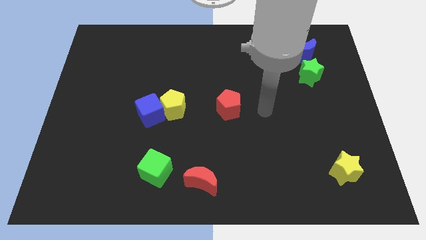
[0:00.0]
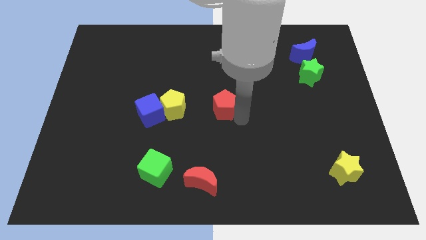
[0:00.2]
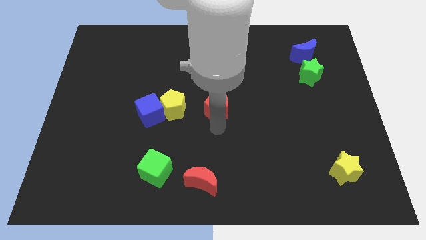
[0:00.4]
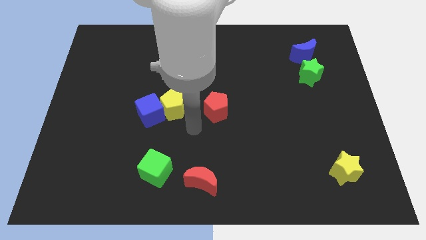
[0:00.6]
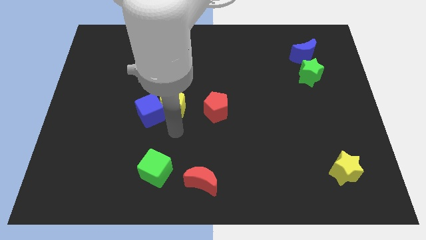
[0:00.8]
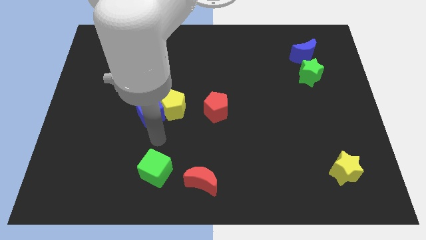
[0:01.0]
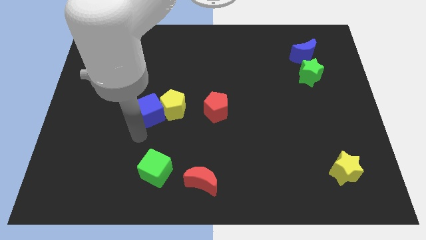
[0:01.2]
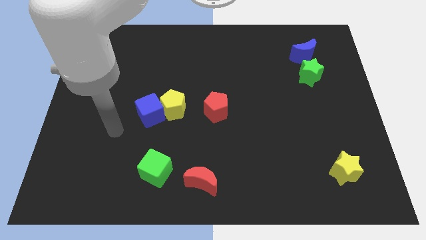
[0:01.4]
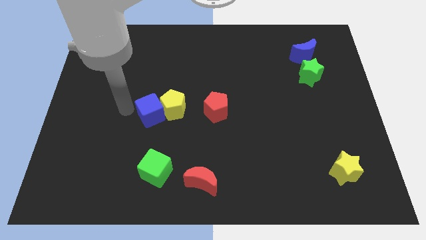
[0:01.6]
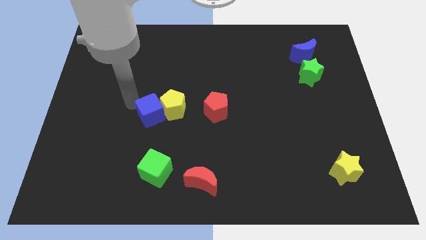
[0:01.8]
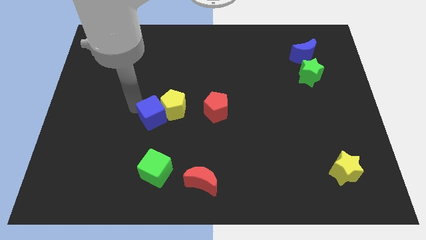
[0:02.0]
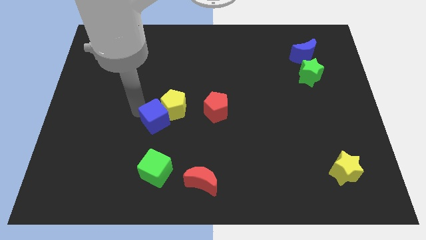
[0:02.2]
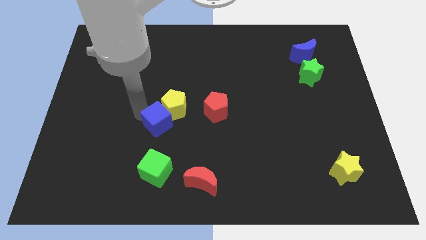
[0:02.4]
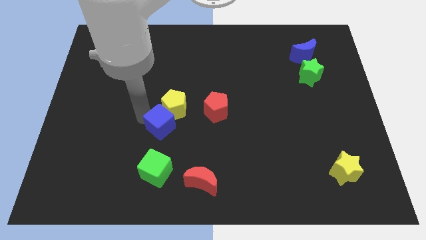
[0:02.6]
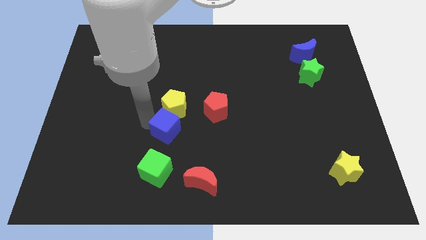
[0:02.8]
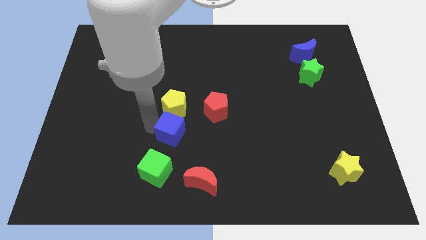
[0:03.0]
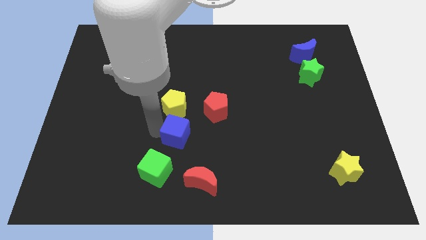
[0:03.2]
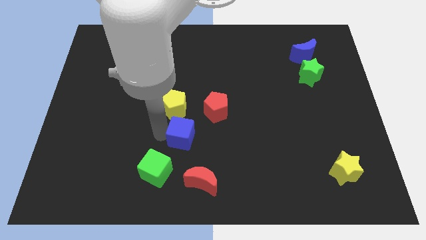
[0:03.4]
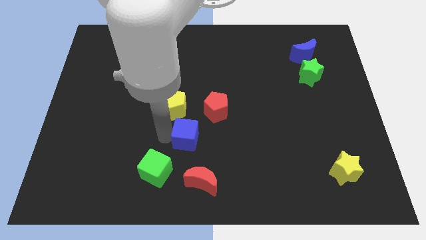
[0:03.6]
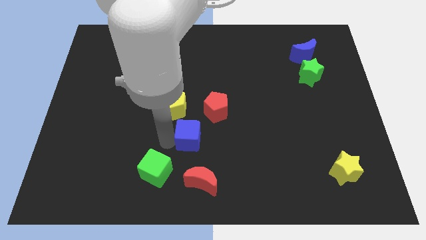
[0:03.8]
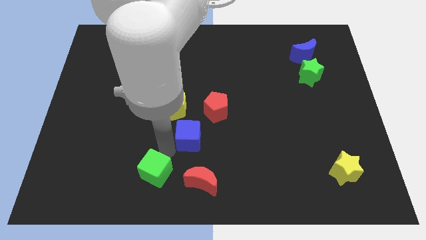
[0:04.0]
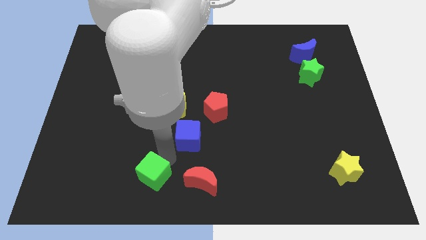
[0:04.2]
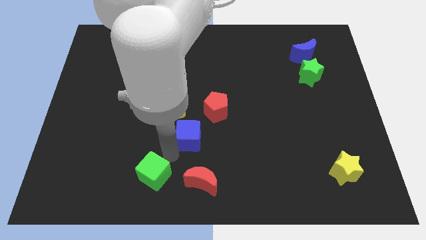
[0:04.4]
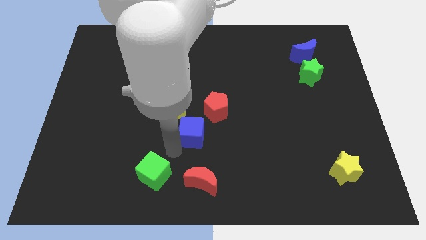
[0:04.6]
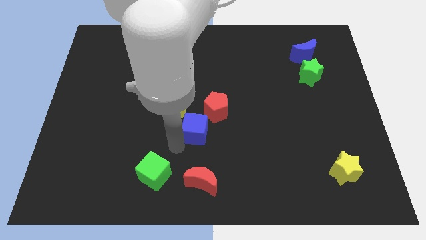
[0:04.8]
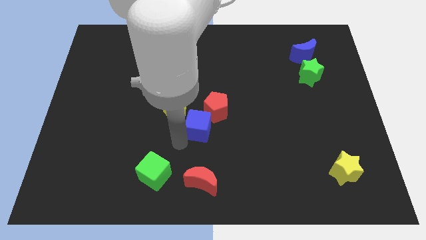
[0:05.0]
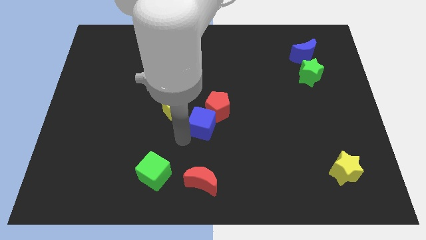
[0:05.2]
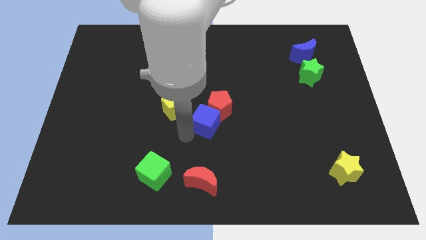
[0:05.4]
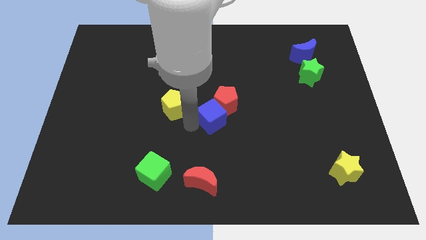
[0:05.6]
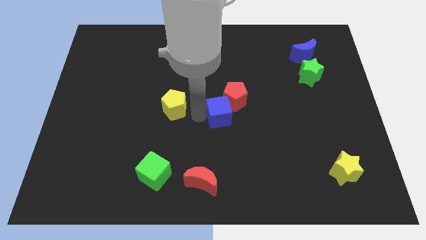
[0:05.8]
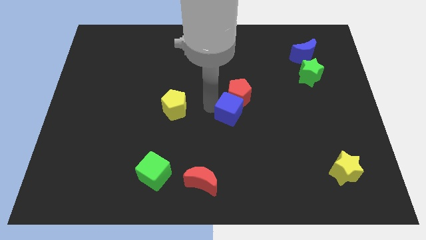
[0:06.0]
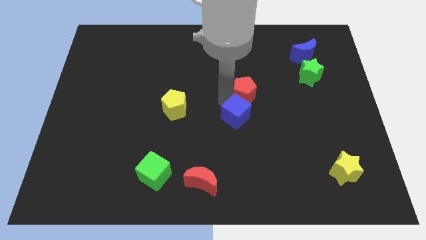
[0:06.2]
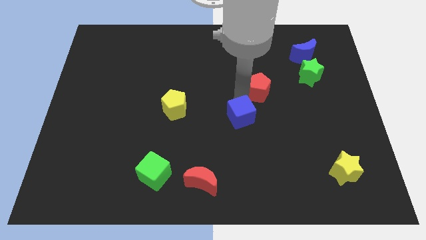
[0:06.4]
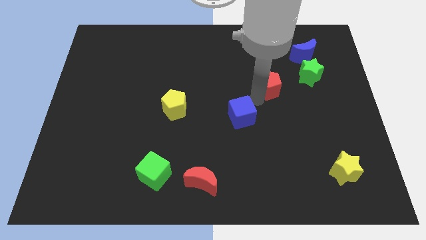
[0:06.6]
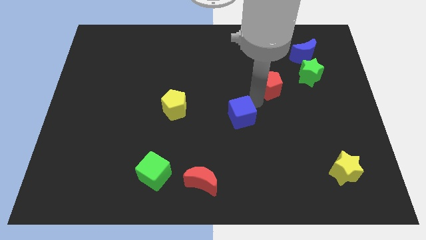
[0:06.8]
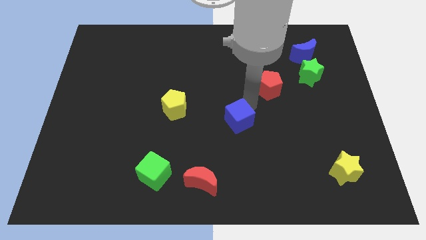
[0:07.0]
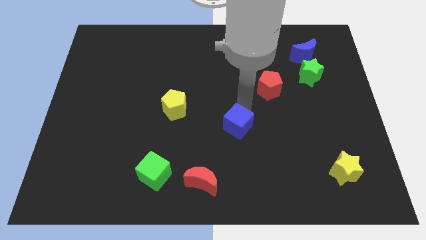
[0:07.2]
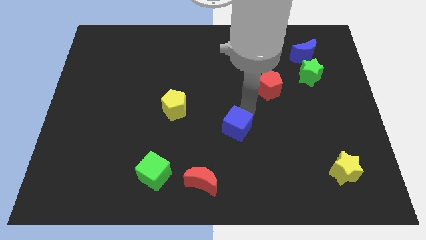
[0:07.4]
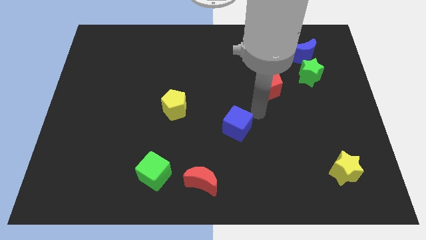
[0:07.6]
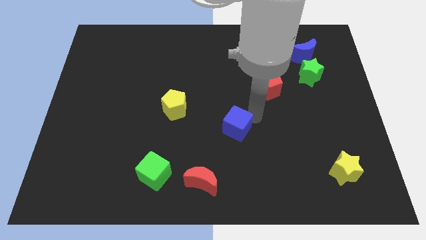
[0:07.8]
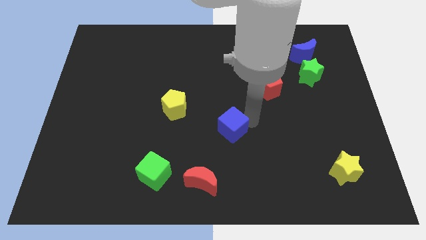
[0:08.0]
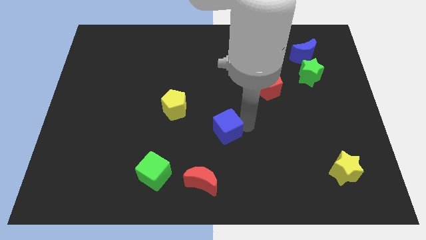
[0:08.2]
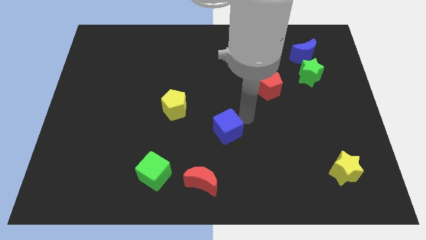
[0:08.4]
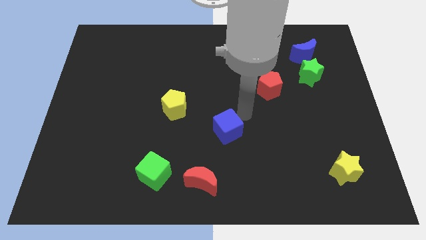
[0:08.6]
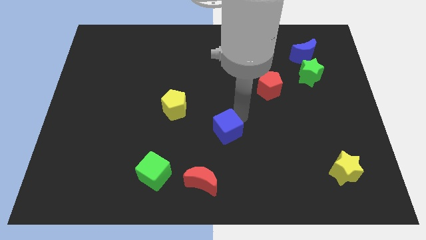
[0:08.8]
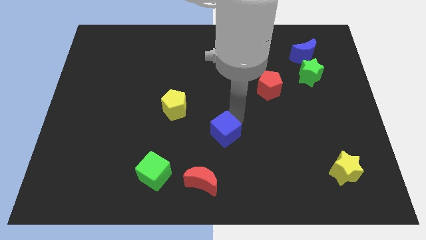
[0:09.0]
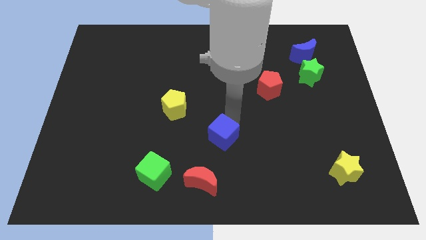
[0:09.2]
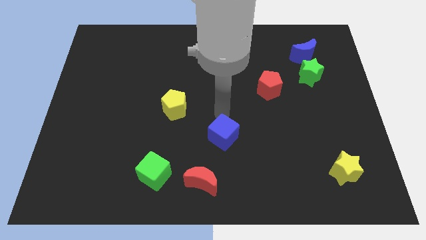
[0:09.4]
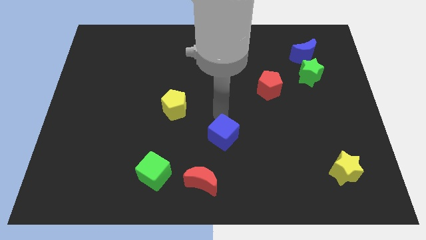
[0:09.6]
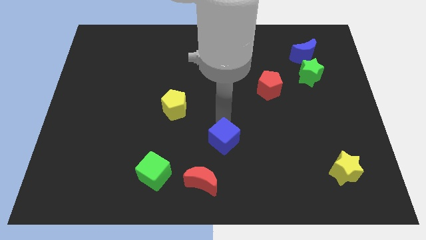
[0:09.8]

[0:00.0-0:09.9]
move the blue cube to the top right side of the red moon

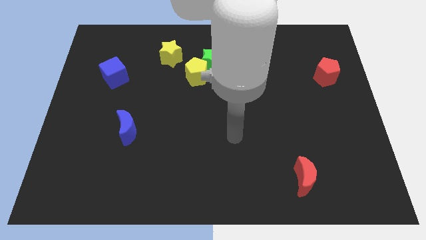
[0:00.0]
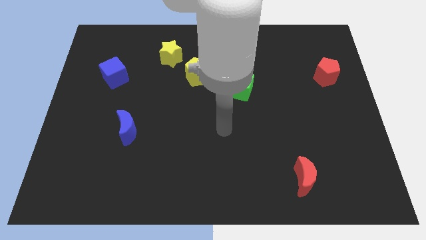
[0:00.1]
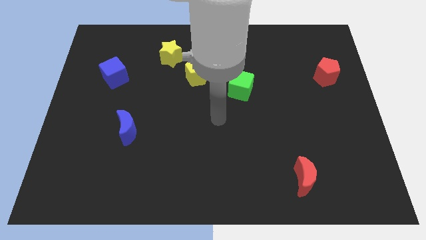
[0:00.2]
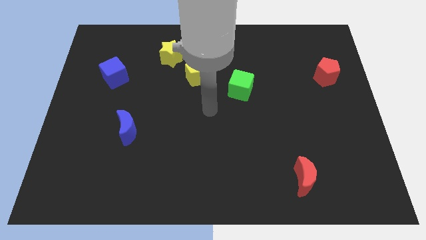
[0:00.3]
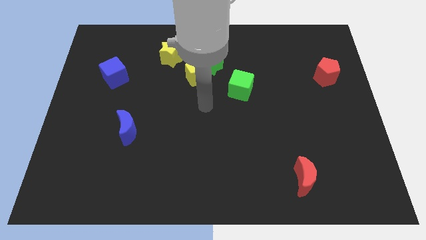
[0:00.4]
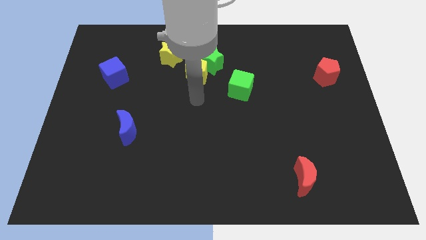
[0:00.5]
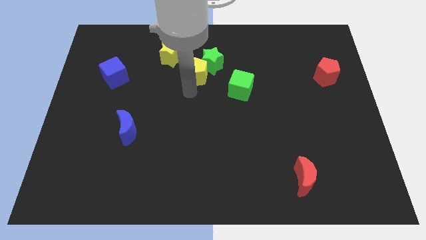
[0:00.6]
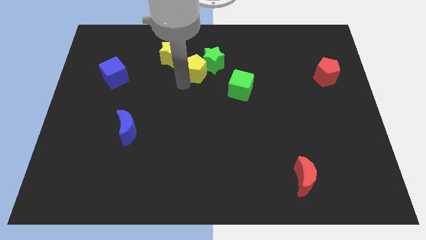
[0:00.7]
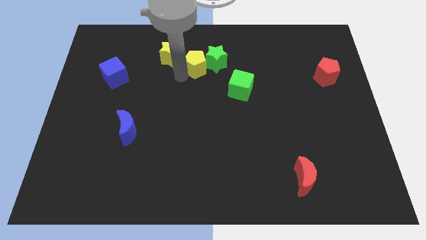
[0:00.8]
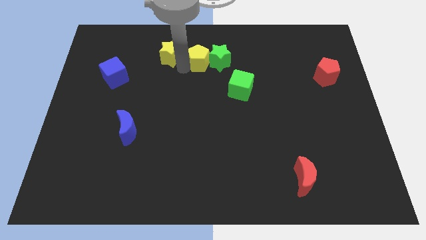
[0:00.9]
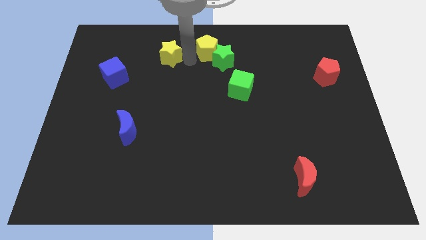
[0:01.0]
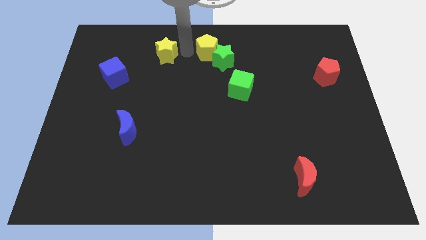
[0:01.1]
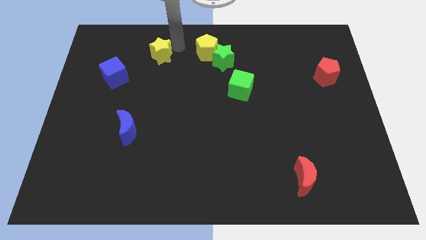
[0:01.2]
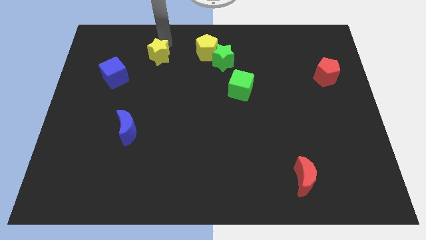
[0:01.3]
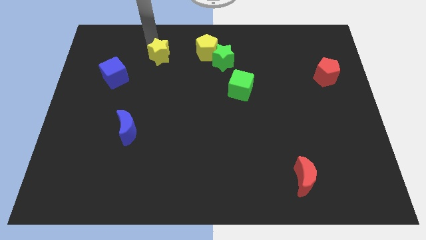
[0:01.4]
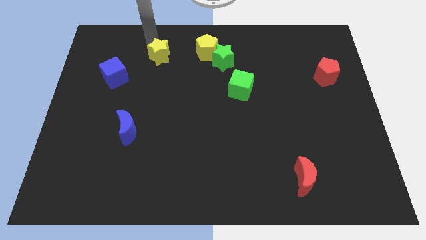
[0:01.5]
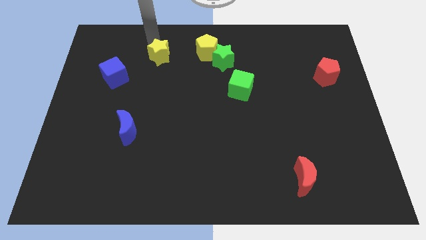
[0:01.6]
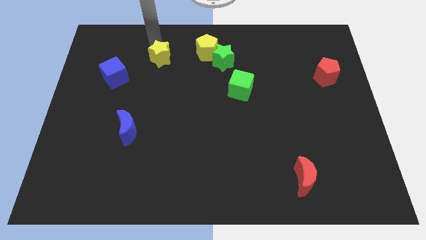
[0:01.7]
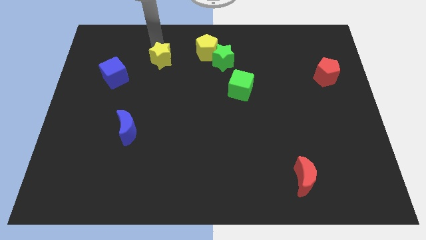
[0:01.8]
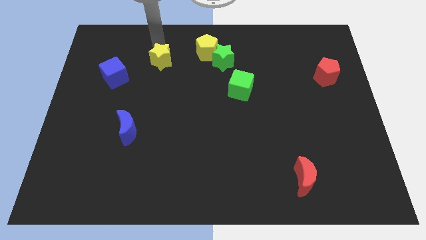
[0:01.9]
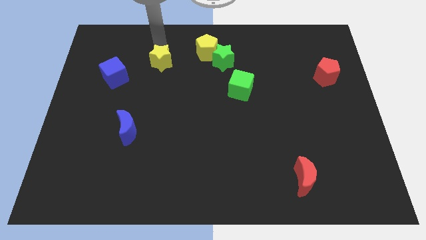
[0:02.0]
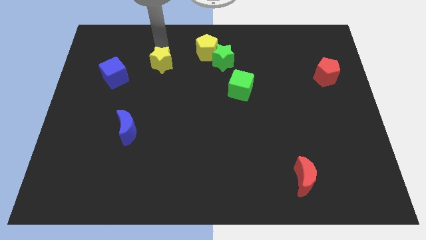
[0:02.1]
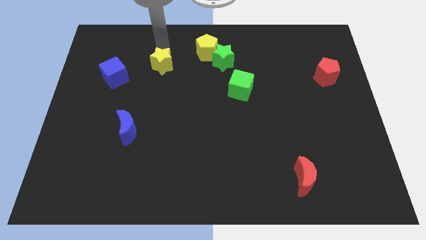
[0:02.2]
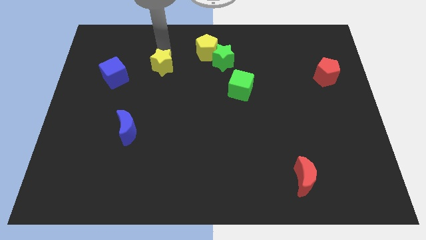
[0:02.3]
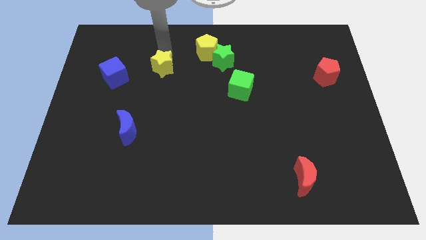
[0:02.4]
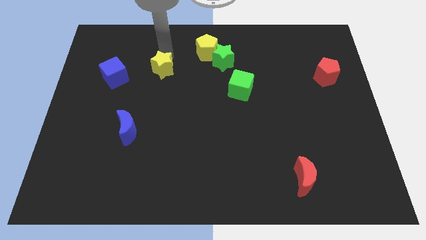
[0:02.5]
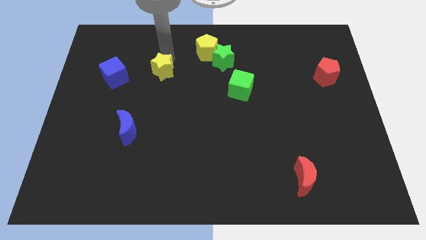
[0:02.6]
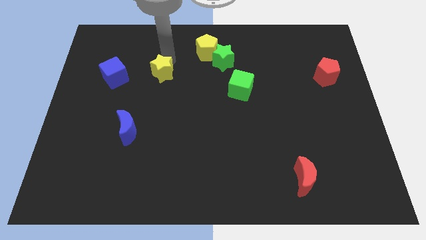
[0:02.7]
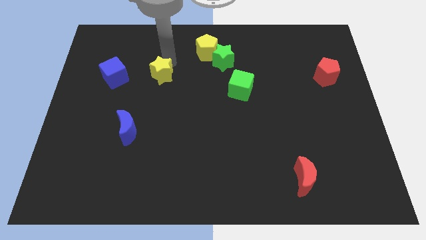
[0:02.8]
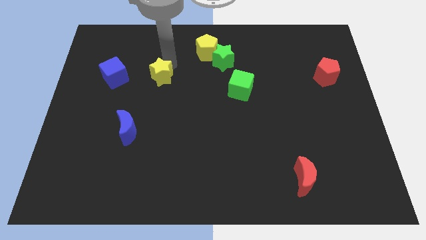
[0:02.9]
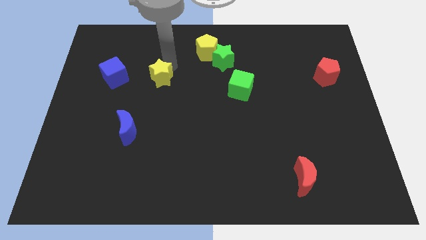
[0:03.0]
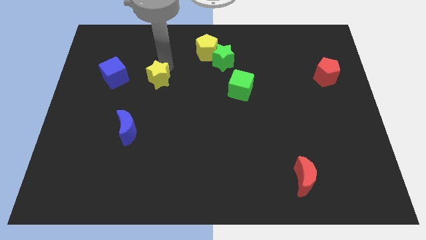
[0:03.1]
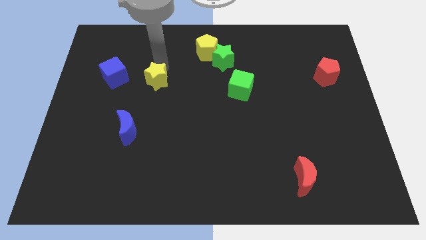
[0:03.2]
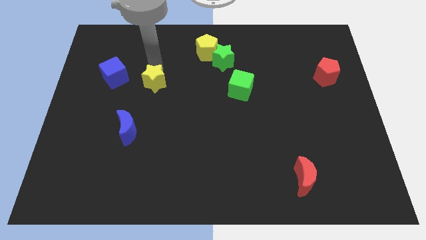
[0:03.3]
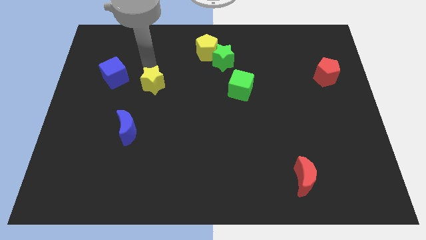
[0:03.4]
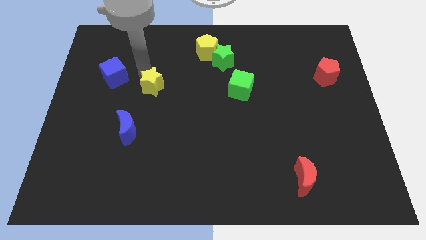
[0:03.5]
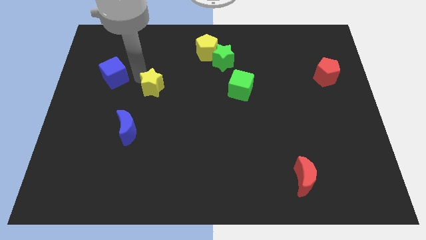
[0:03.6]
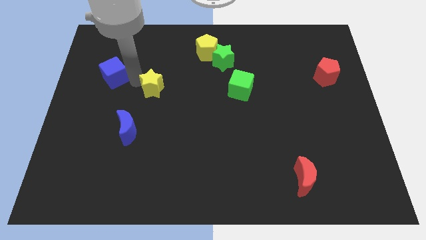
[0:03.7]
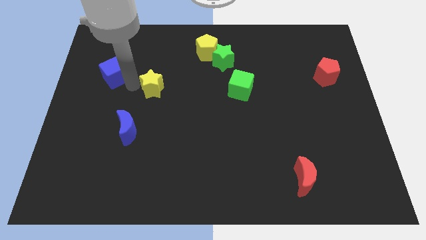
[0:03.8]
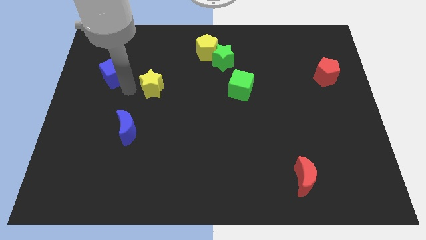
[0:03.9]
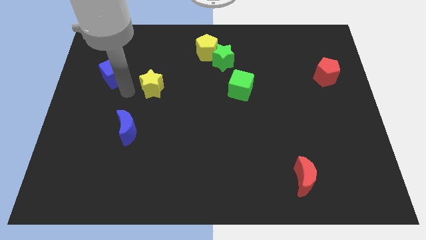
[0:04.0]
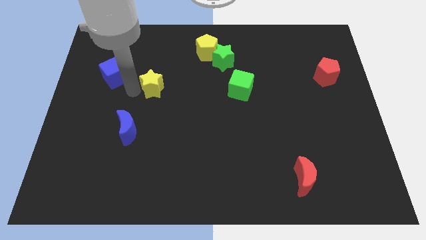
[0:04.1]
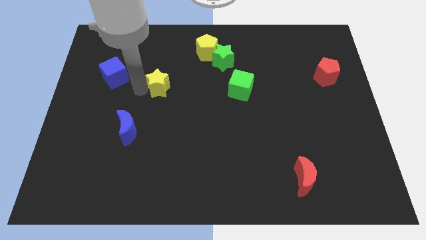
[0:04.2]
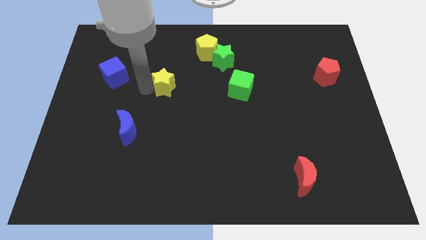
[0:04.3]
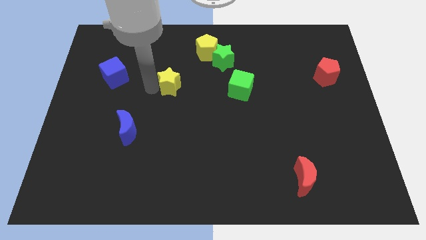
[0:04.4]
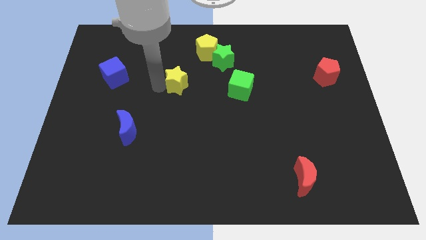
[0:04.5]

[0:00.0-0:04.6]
slide the yellow star just left of the green cube
